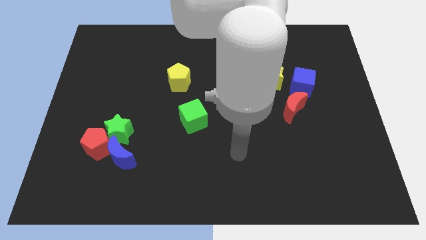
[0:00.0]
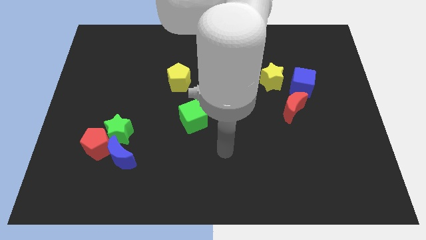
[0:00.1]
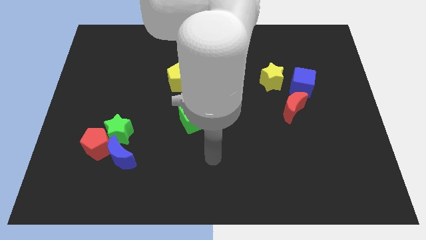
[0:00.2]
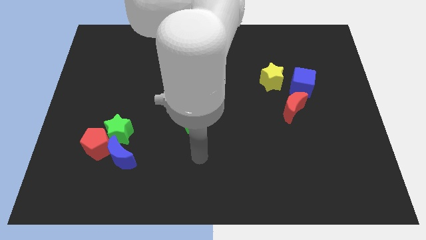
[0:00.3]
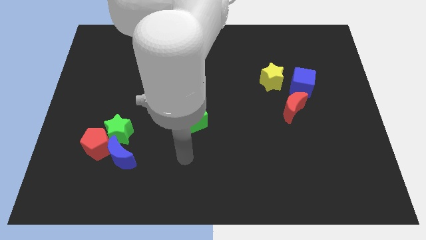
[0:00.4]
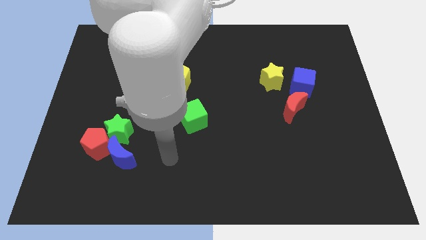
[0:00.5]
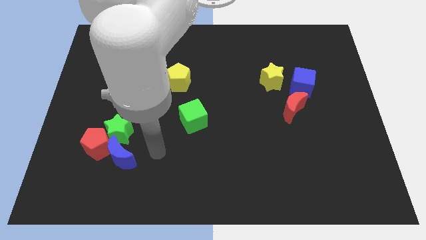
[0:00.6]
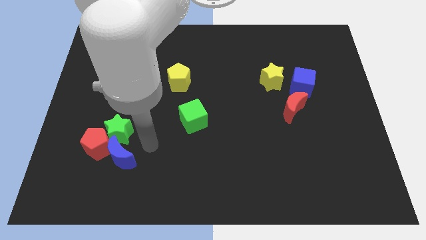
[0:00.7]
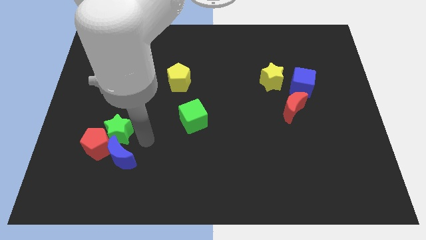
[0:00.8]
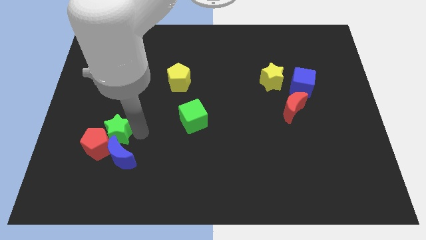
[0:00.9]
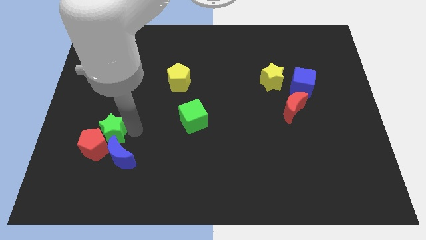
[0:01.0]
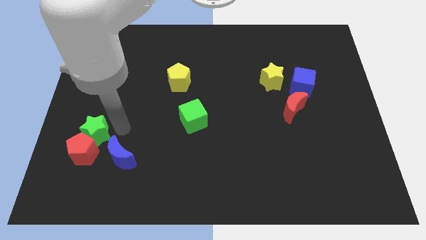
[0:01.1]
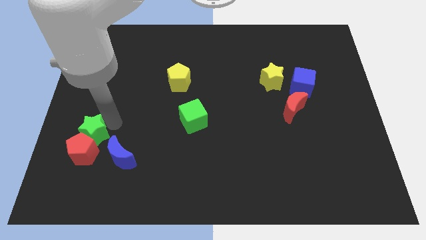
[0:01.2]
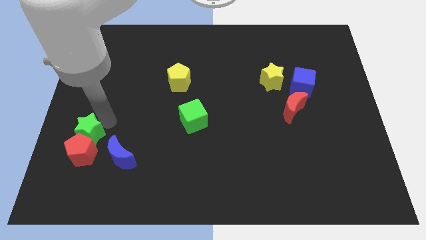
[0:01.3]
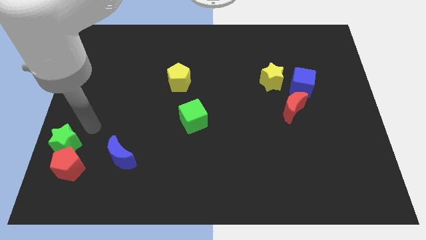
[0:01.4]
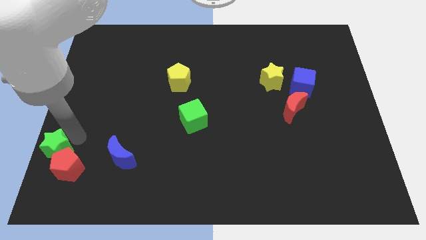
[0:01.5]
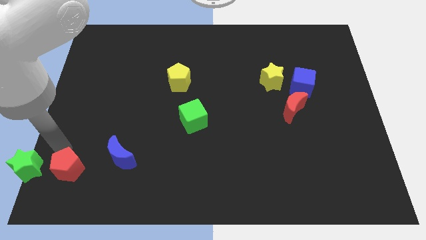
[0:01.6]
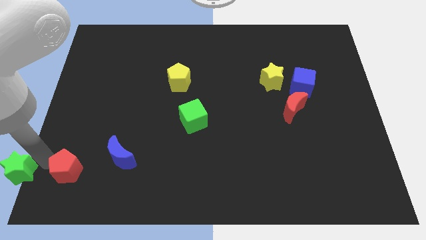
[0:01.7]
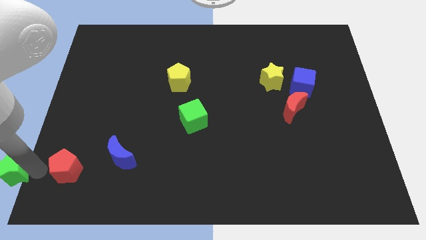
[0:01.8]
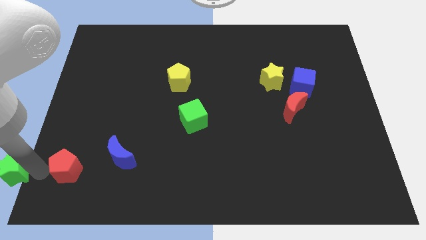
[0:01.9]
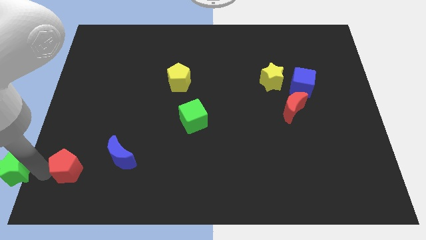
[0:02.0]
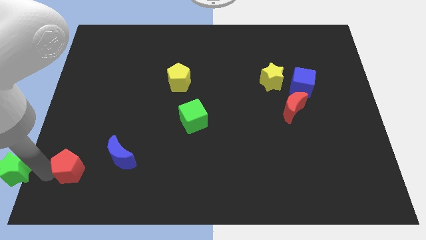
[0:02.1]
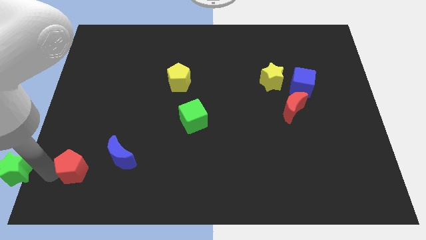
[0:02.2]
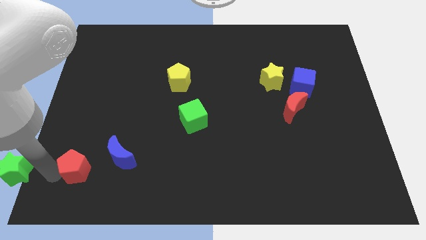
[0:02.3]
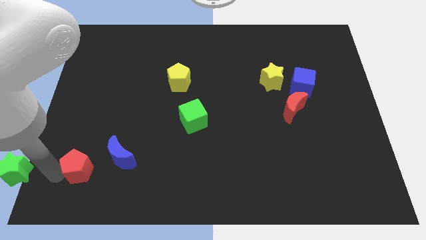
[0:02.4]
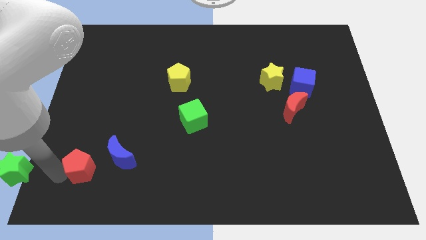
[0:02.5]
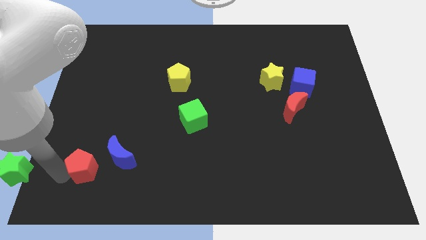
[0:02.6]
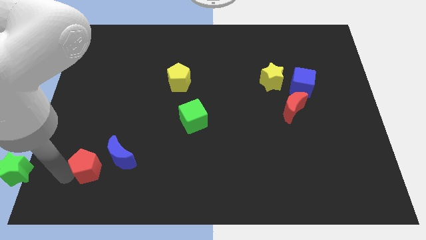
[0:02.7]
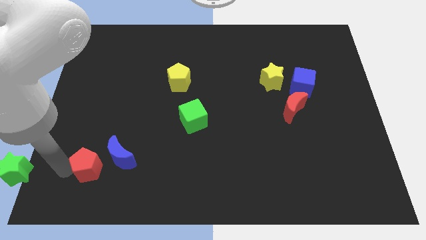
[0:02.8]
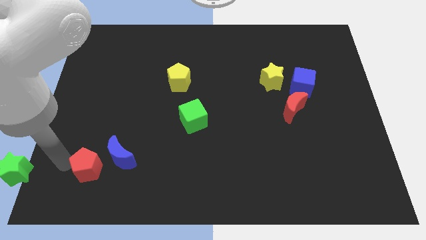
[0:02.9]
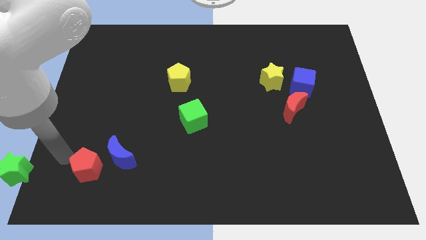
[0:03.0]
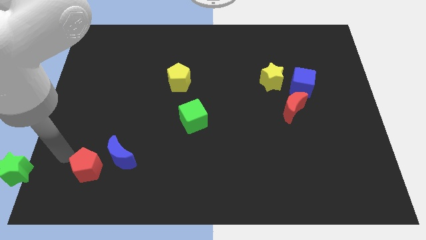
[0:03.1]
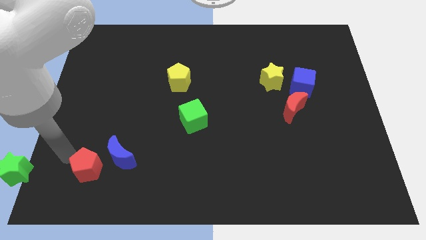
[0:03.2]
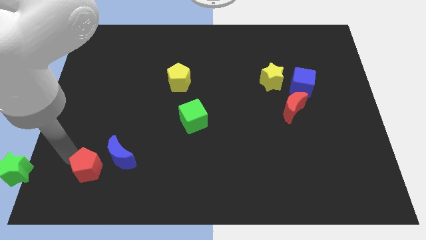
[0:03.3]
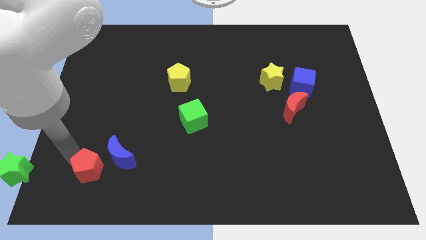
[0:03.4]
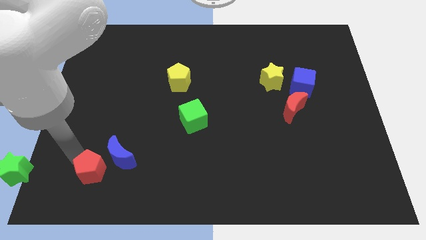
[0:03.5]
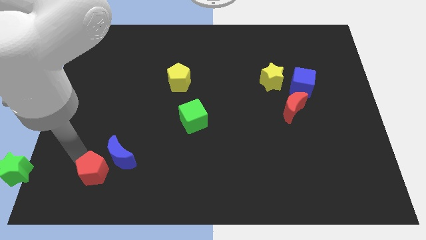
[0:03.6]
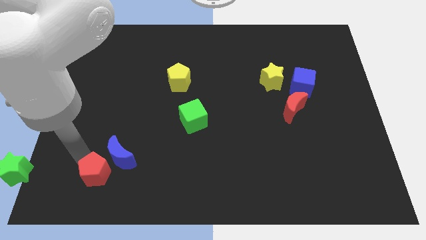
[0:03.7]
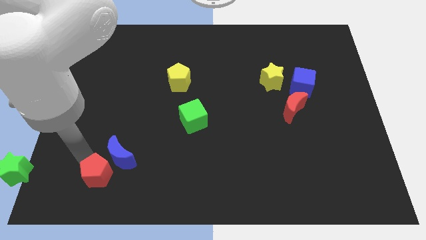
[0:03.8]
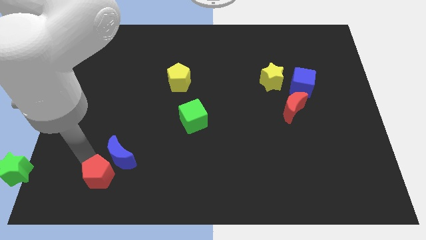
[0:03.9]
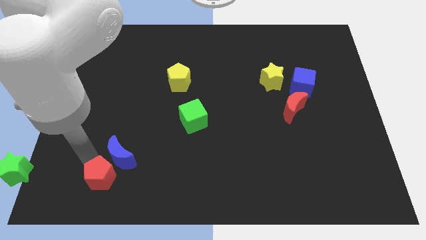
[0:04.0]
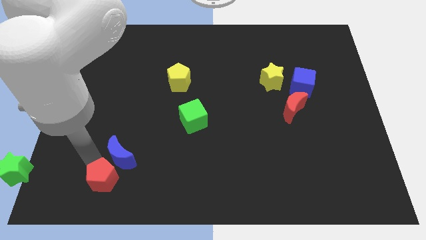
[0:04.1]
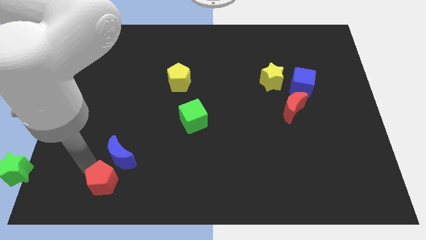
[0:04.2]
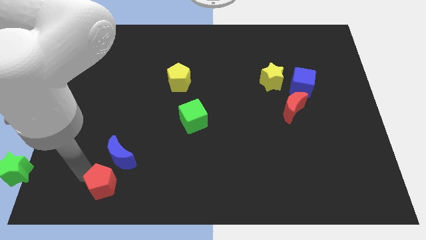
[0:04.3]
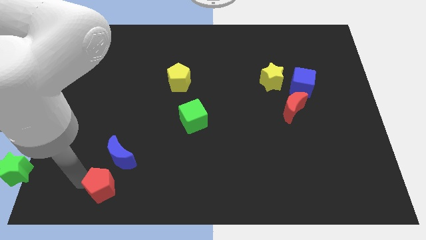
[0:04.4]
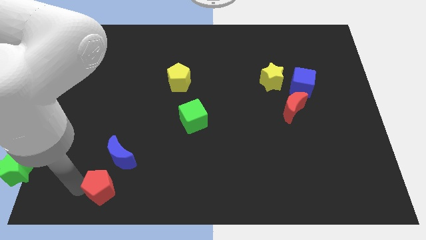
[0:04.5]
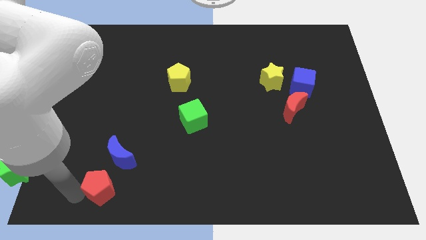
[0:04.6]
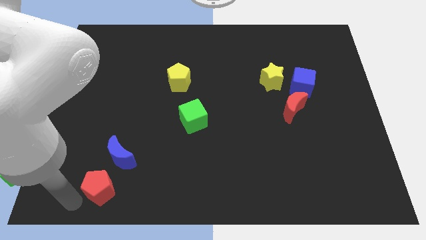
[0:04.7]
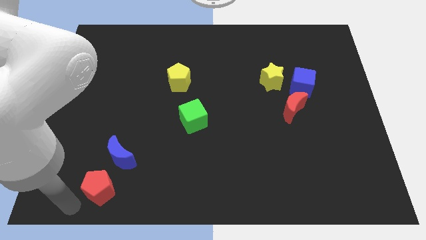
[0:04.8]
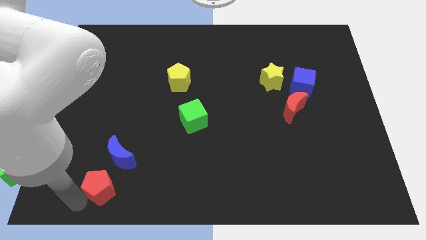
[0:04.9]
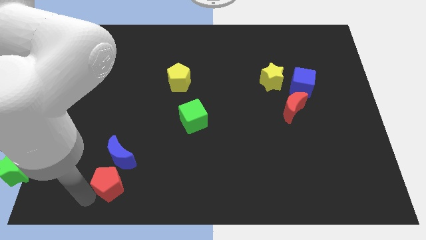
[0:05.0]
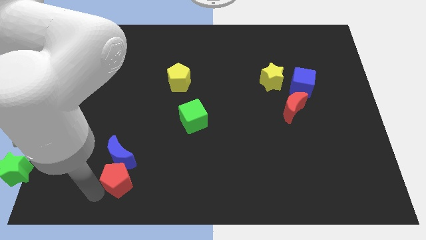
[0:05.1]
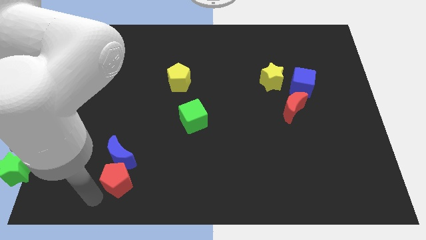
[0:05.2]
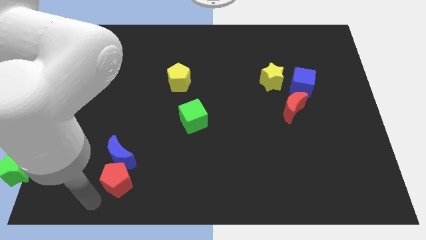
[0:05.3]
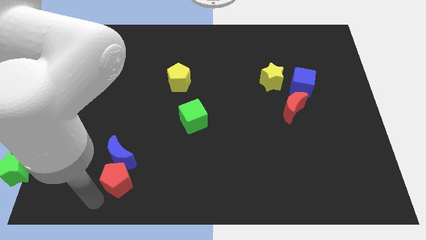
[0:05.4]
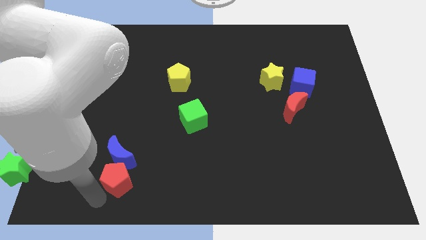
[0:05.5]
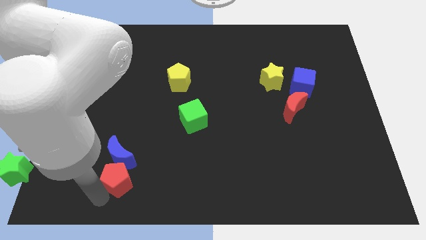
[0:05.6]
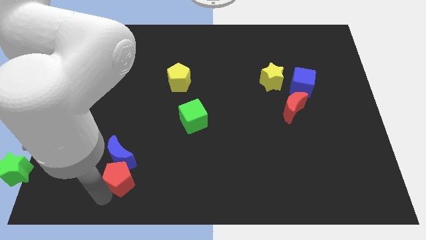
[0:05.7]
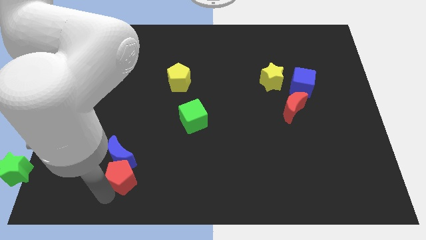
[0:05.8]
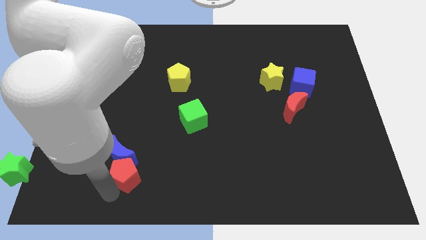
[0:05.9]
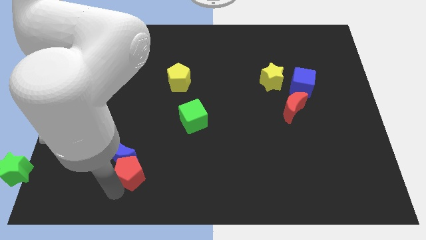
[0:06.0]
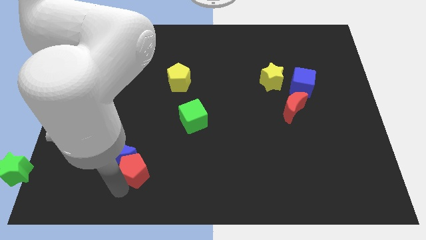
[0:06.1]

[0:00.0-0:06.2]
push the red pentagon somewhat to the right

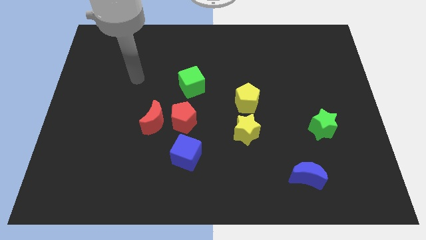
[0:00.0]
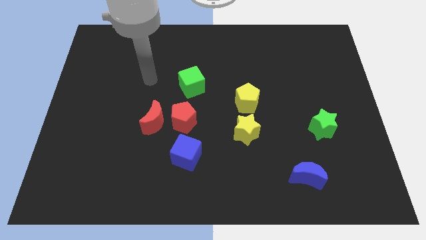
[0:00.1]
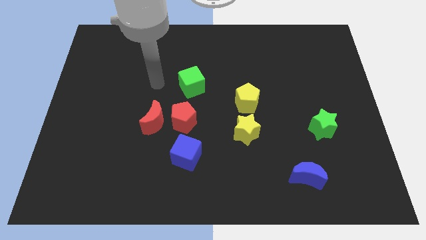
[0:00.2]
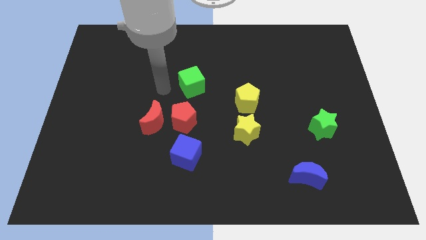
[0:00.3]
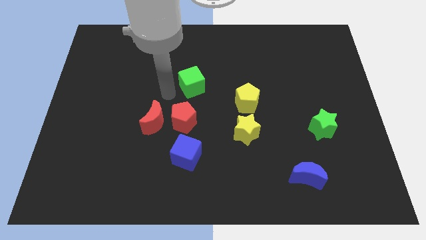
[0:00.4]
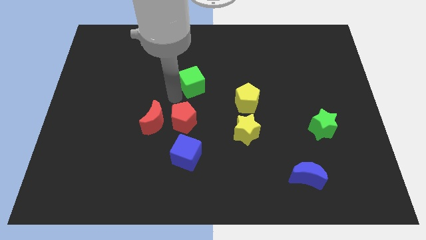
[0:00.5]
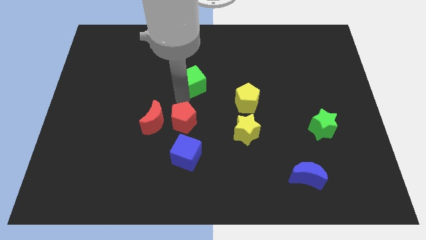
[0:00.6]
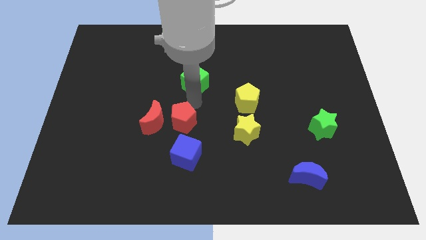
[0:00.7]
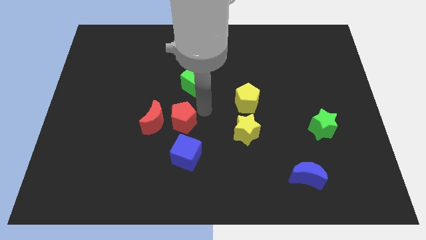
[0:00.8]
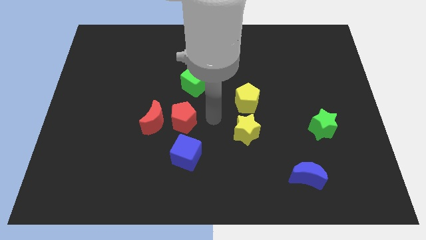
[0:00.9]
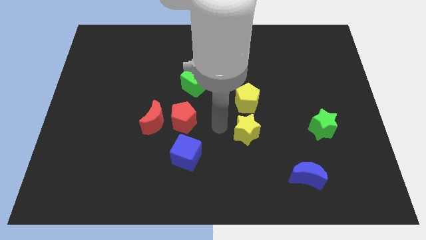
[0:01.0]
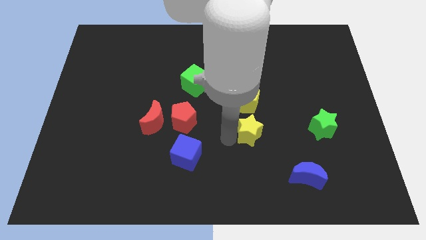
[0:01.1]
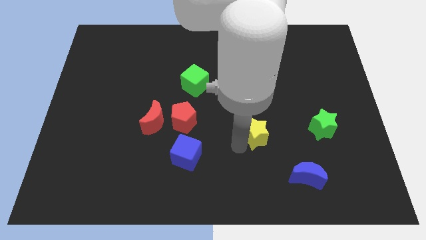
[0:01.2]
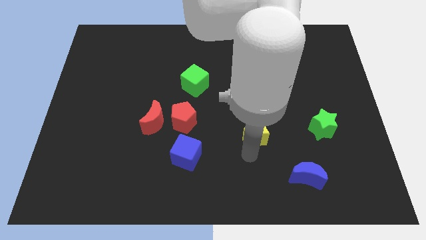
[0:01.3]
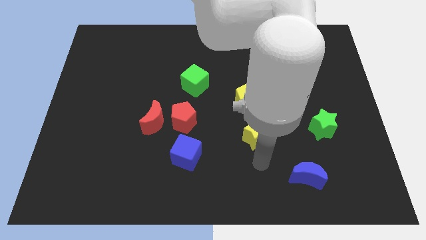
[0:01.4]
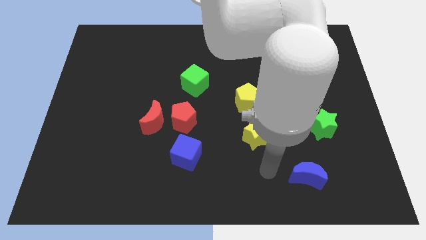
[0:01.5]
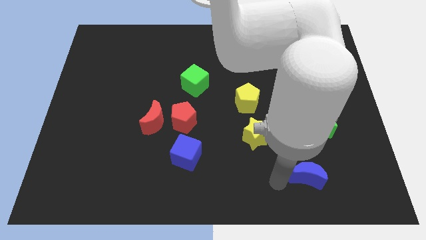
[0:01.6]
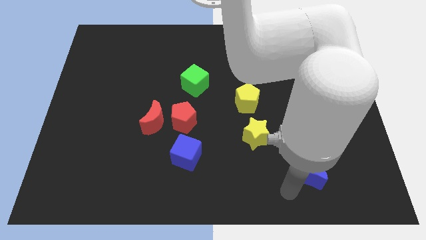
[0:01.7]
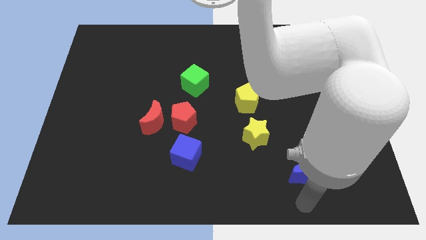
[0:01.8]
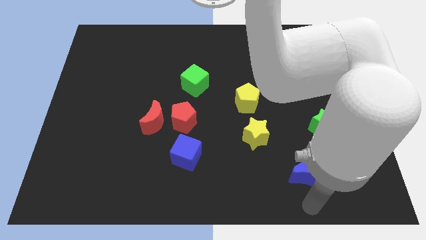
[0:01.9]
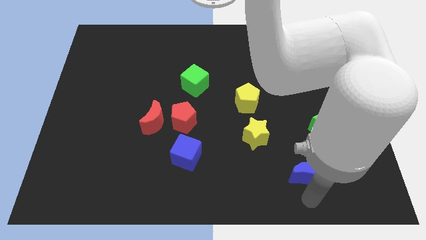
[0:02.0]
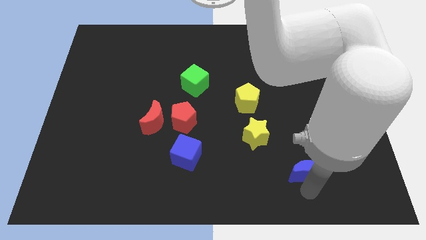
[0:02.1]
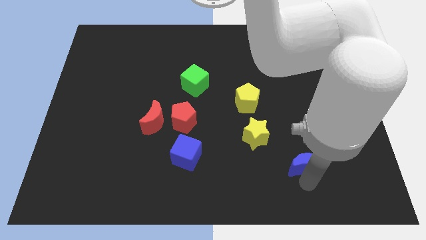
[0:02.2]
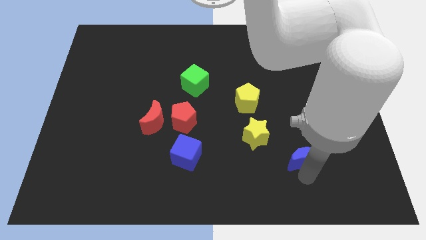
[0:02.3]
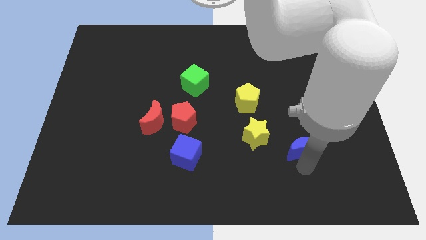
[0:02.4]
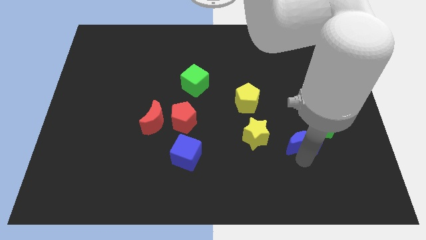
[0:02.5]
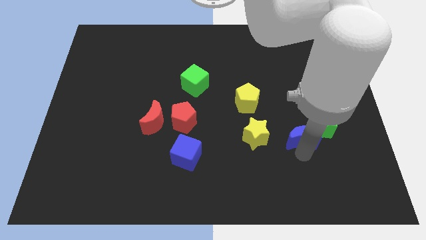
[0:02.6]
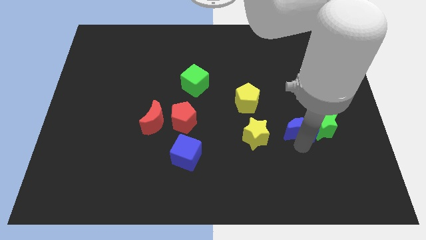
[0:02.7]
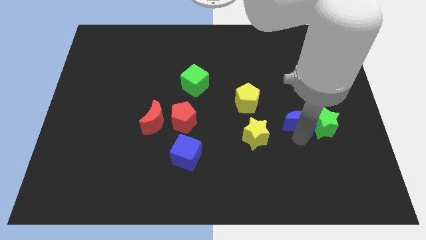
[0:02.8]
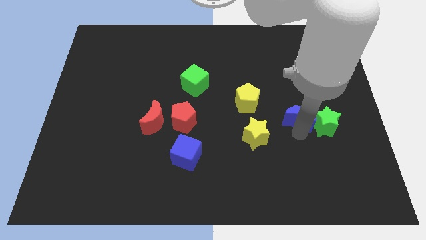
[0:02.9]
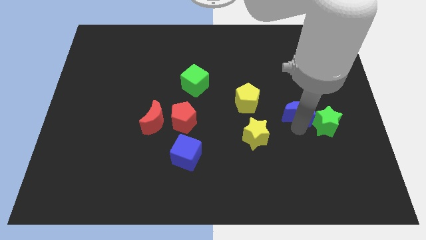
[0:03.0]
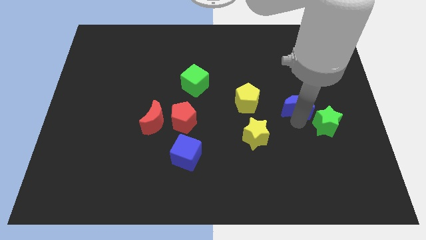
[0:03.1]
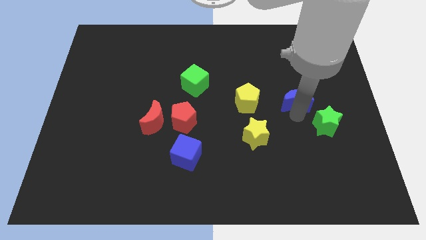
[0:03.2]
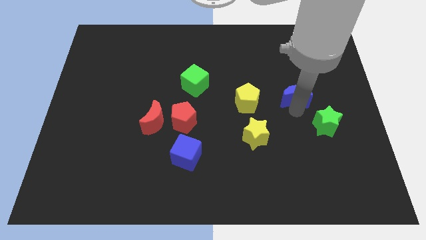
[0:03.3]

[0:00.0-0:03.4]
push the blue moon up
